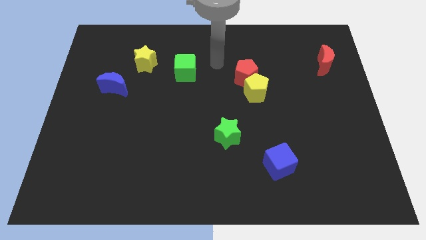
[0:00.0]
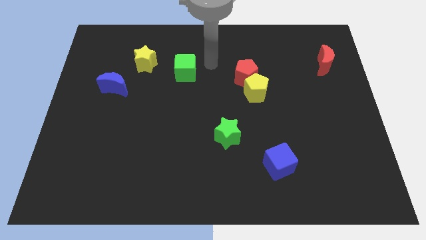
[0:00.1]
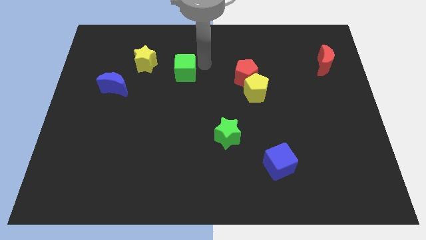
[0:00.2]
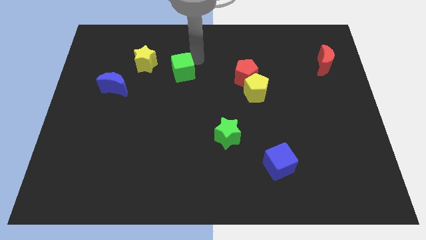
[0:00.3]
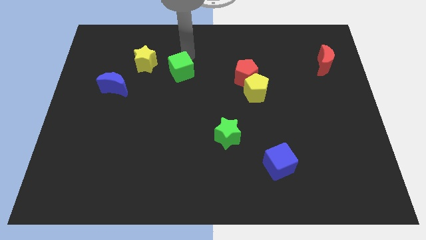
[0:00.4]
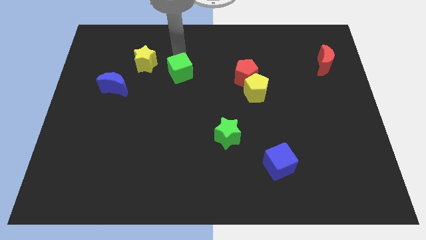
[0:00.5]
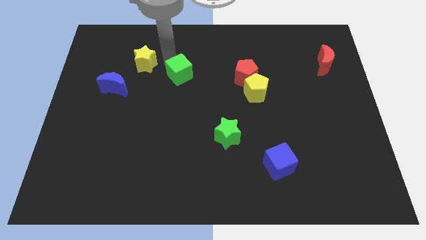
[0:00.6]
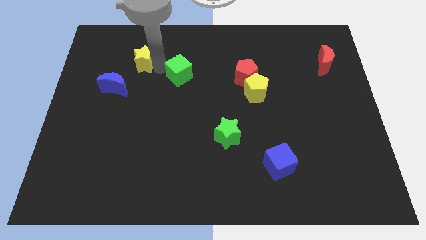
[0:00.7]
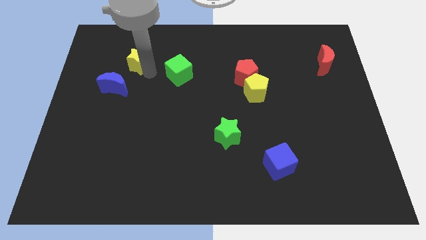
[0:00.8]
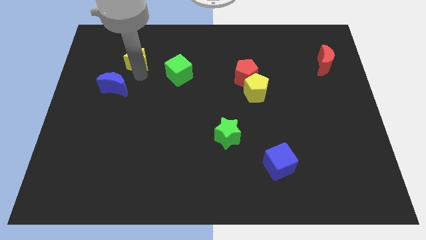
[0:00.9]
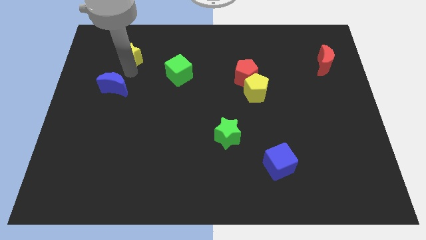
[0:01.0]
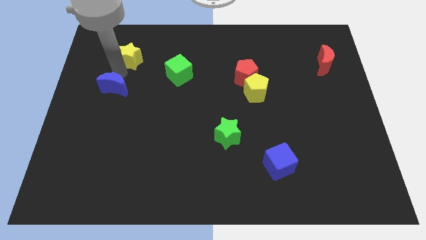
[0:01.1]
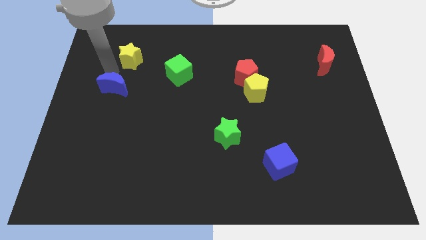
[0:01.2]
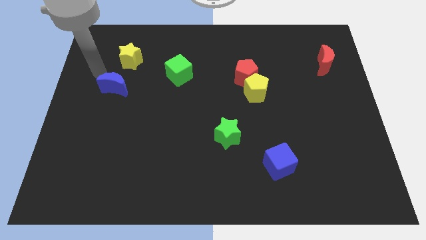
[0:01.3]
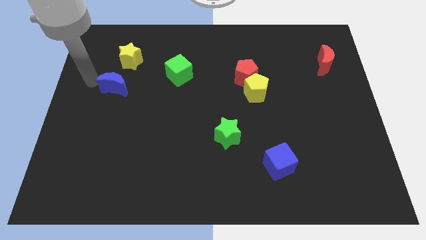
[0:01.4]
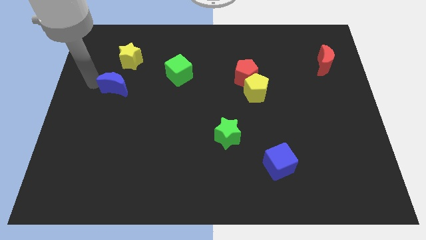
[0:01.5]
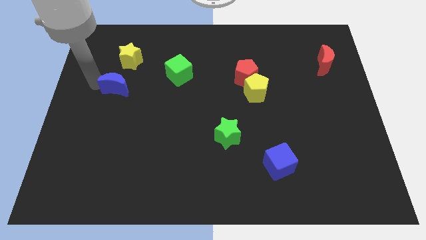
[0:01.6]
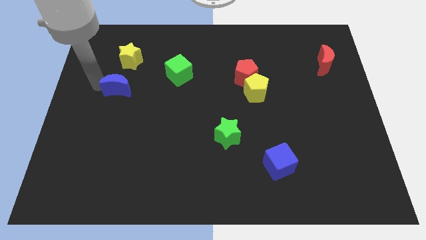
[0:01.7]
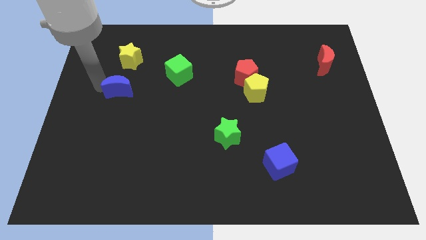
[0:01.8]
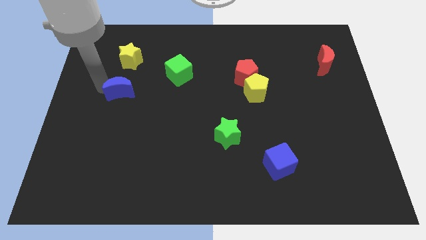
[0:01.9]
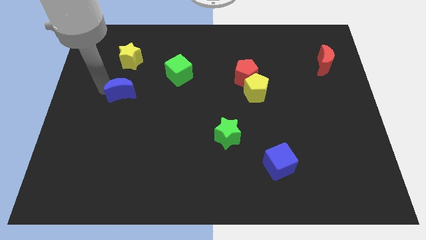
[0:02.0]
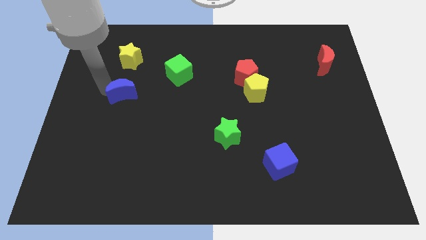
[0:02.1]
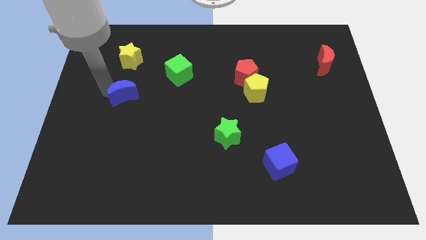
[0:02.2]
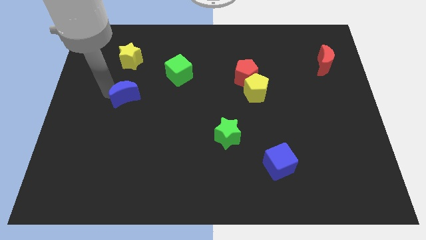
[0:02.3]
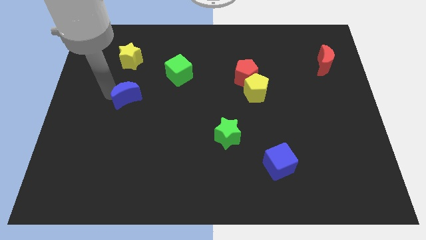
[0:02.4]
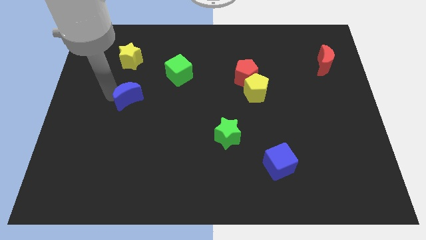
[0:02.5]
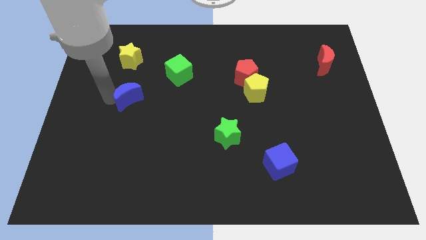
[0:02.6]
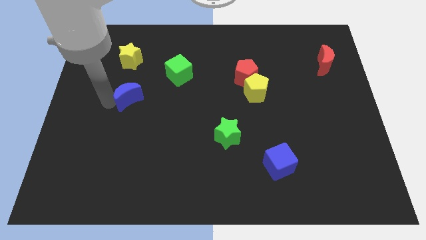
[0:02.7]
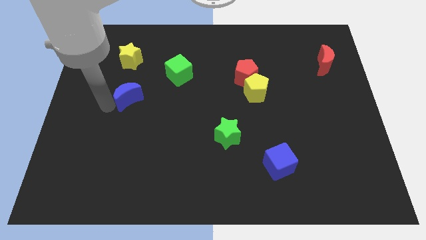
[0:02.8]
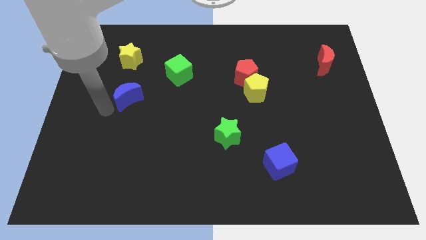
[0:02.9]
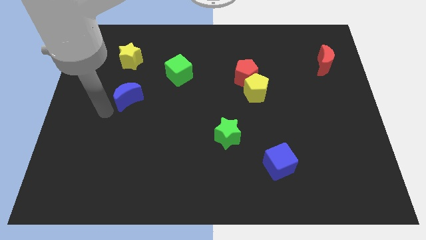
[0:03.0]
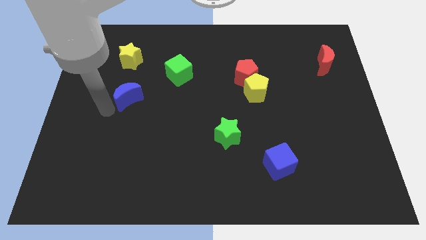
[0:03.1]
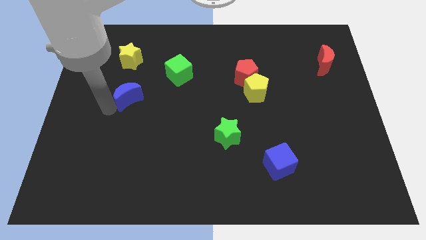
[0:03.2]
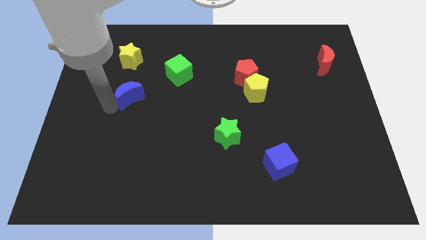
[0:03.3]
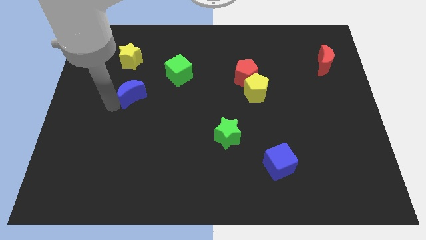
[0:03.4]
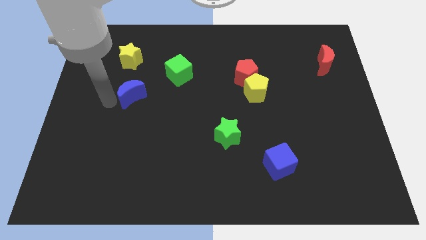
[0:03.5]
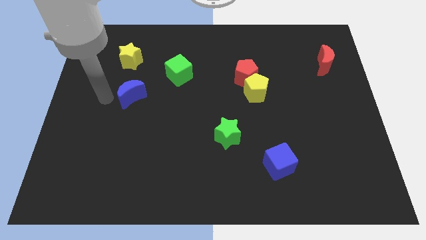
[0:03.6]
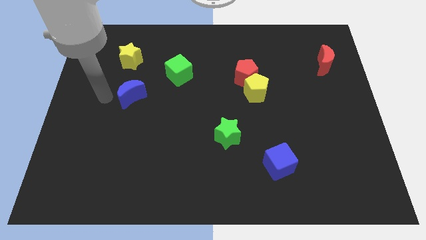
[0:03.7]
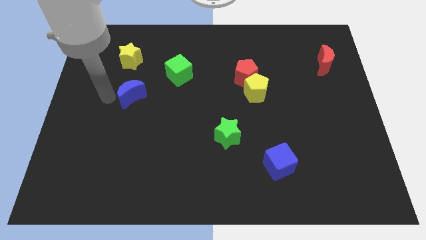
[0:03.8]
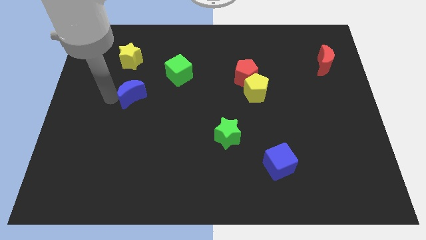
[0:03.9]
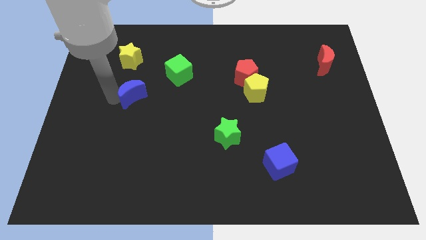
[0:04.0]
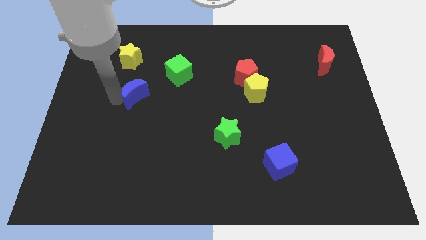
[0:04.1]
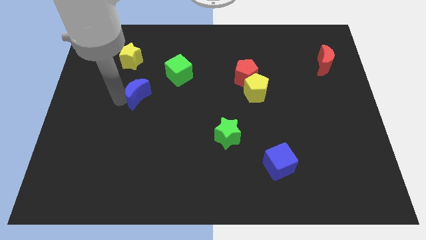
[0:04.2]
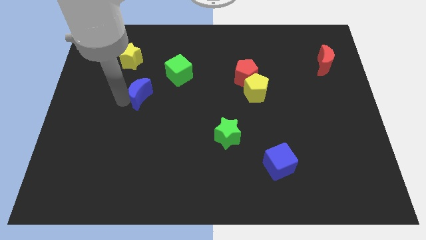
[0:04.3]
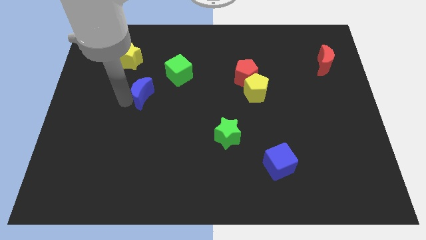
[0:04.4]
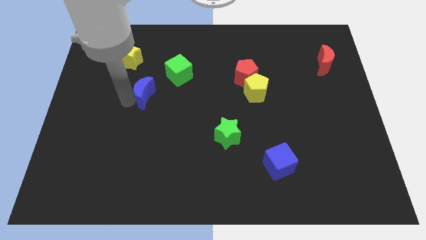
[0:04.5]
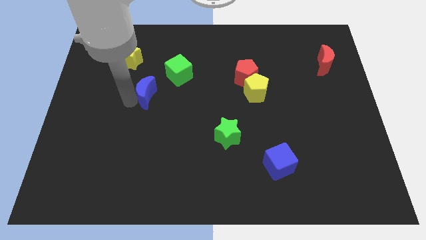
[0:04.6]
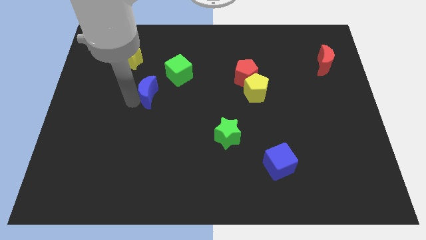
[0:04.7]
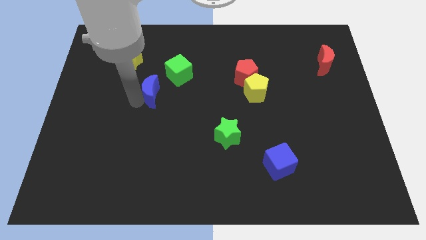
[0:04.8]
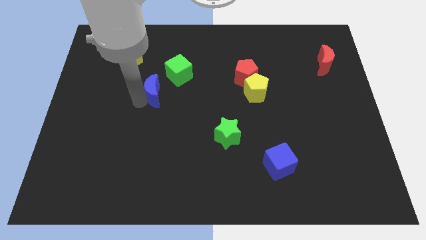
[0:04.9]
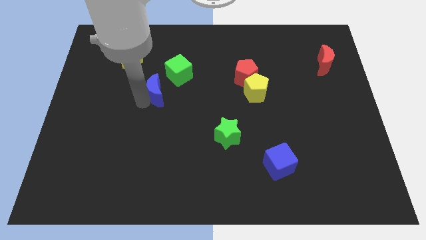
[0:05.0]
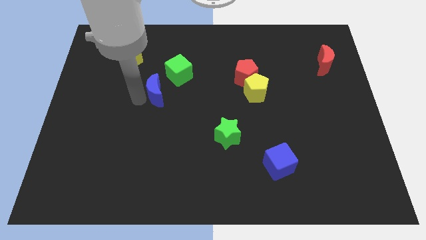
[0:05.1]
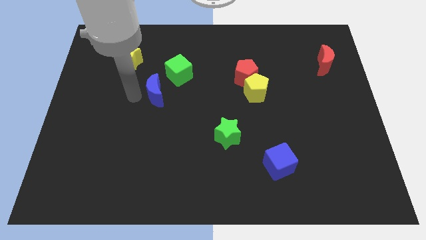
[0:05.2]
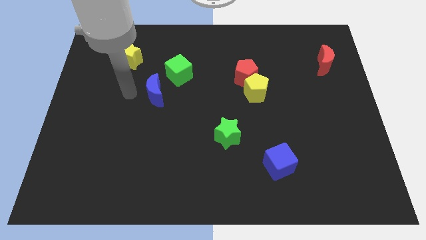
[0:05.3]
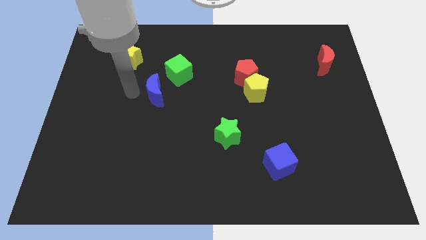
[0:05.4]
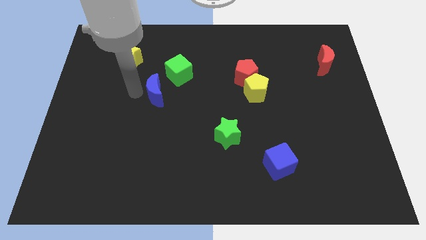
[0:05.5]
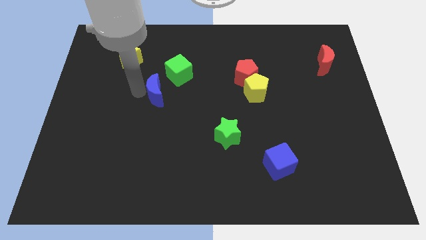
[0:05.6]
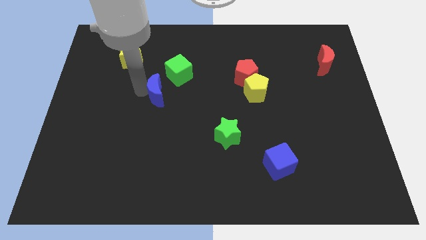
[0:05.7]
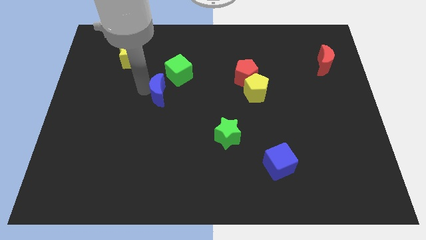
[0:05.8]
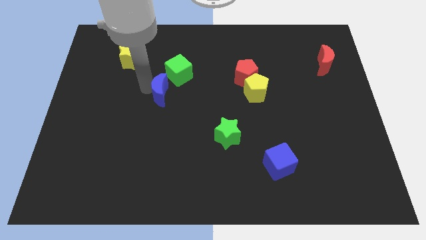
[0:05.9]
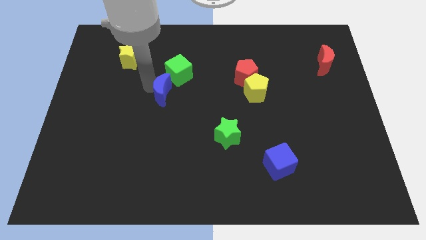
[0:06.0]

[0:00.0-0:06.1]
put the blue moon to the middle of the board

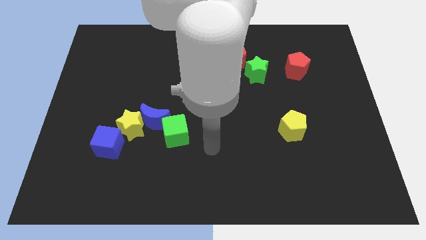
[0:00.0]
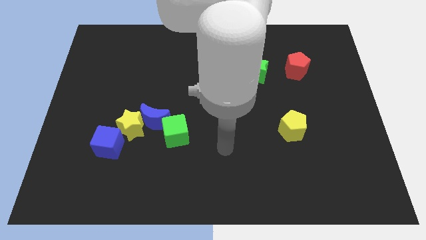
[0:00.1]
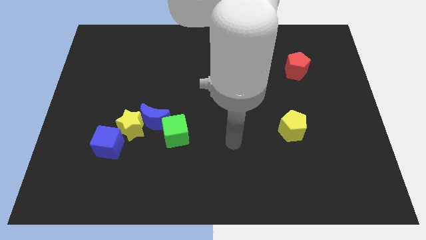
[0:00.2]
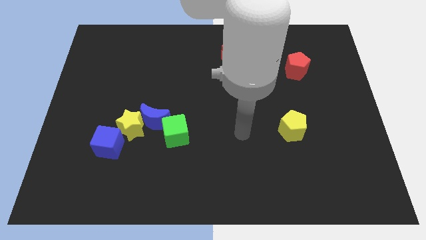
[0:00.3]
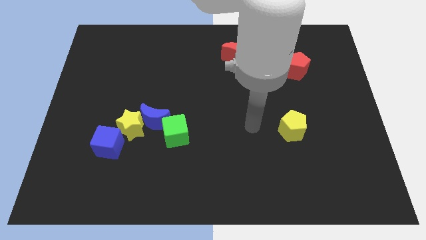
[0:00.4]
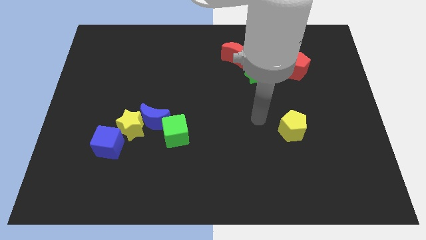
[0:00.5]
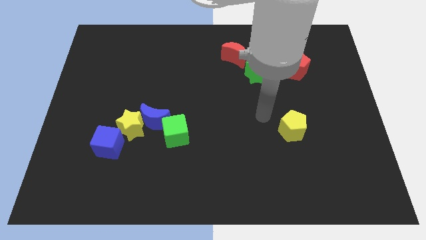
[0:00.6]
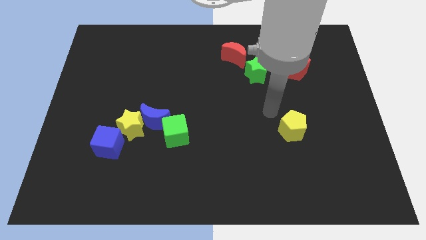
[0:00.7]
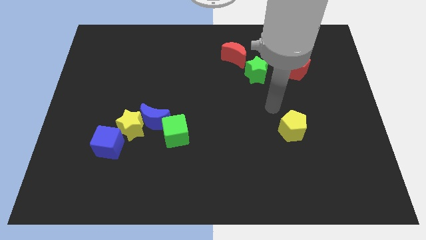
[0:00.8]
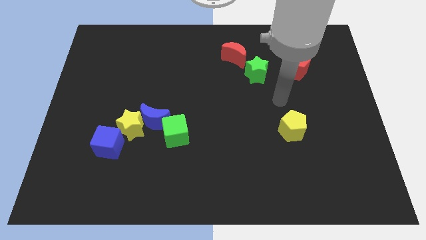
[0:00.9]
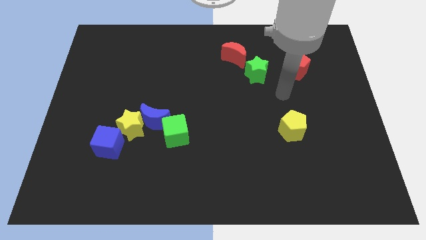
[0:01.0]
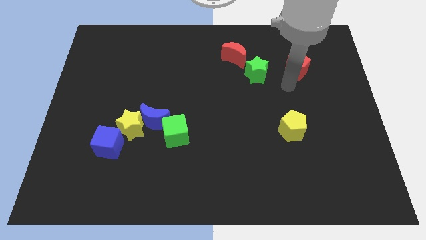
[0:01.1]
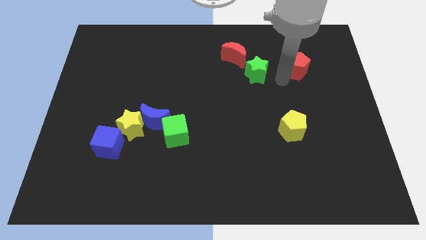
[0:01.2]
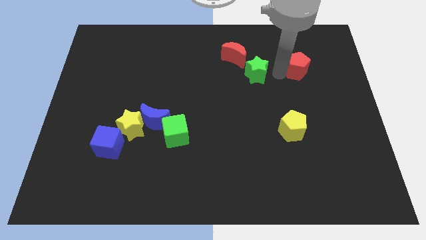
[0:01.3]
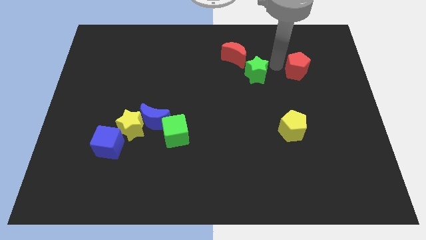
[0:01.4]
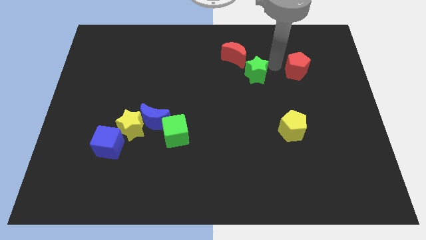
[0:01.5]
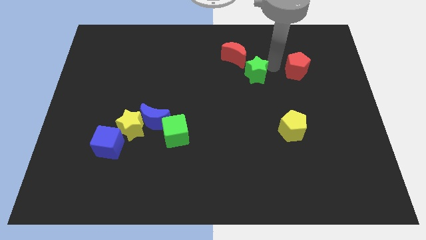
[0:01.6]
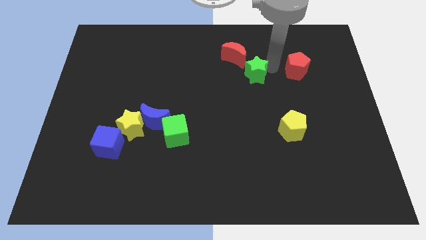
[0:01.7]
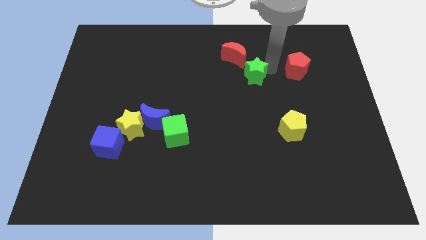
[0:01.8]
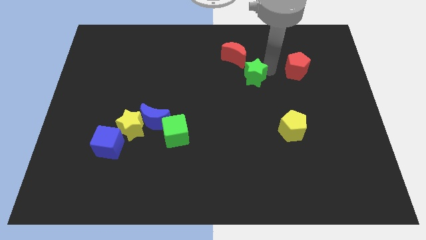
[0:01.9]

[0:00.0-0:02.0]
push the green star to the center of the board
